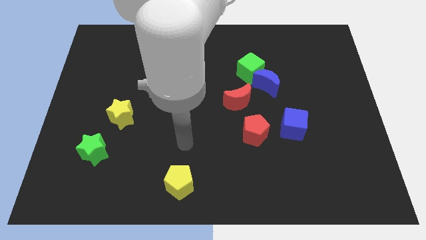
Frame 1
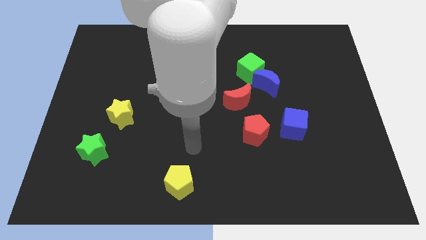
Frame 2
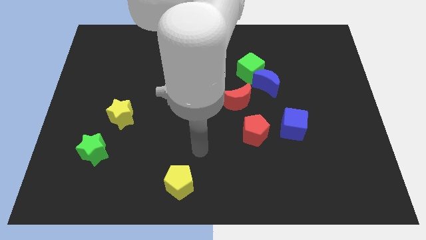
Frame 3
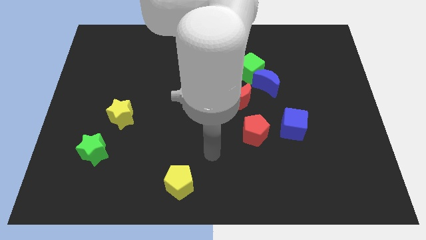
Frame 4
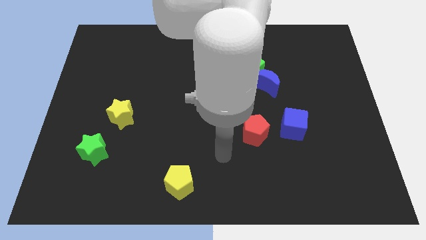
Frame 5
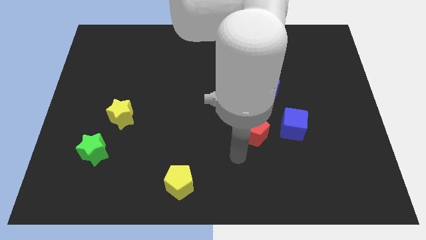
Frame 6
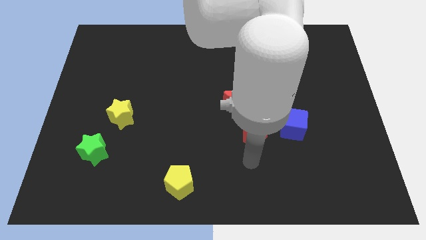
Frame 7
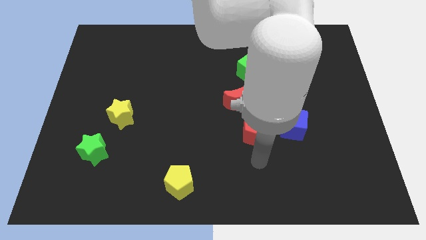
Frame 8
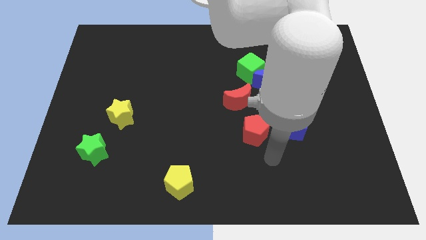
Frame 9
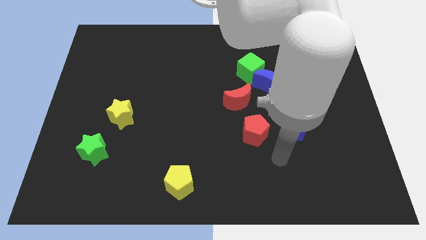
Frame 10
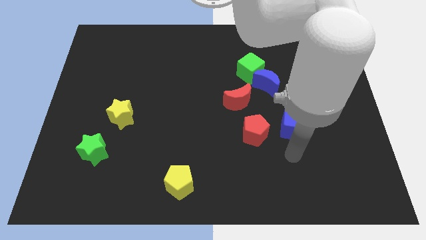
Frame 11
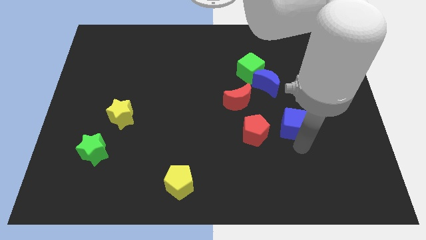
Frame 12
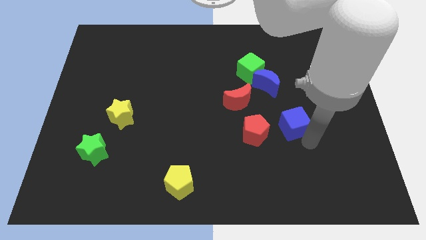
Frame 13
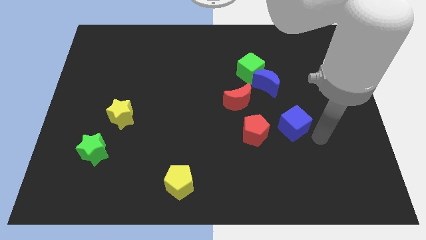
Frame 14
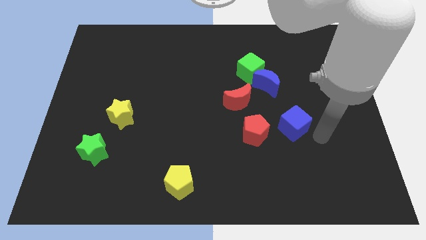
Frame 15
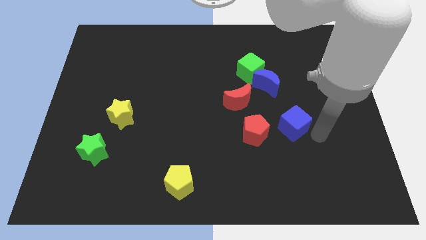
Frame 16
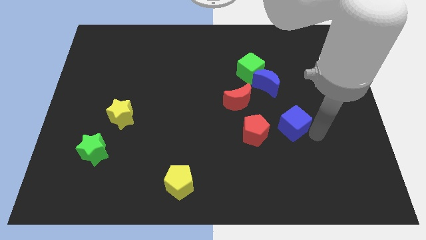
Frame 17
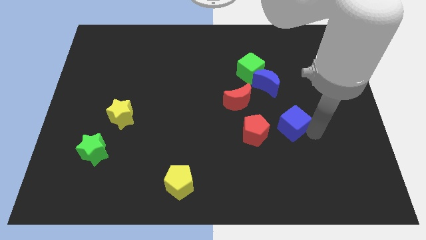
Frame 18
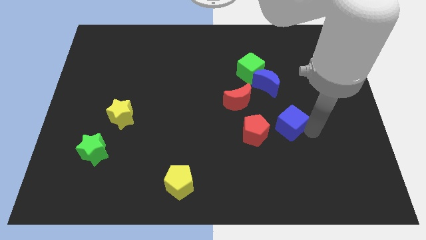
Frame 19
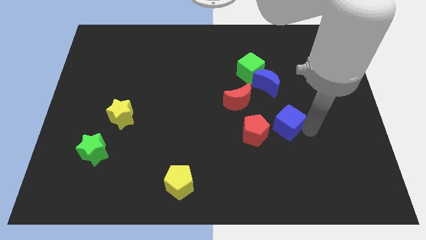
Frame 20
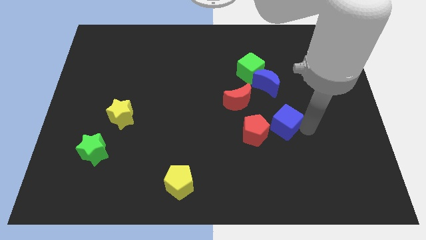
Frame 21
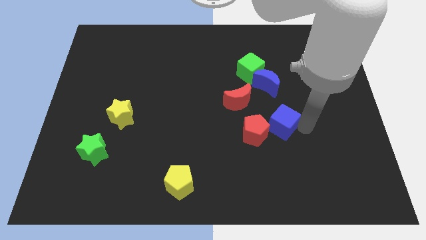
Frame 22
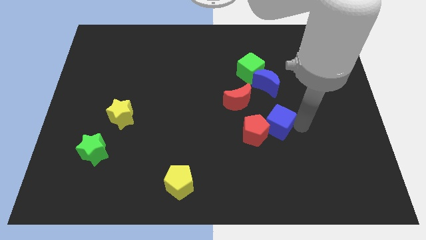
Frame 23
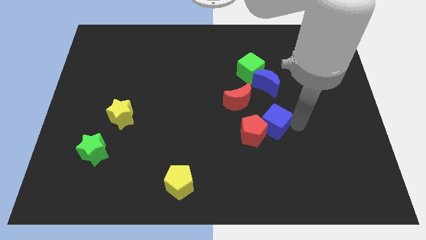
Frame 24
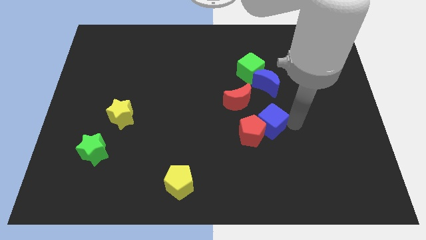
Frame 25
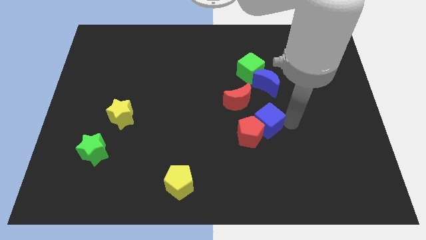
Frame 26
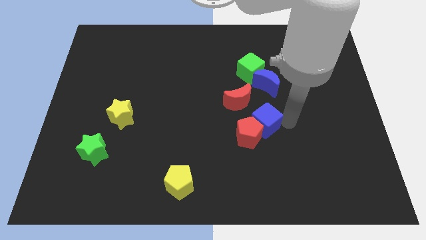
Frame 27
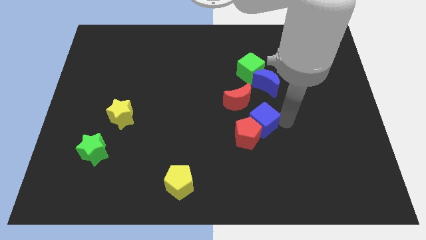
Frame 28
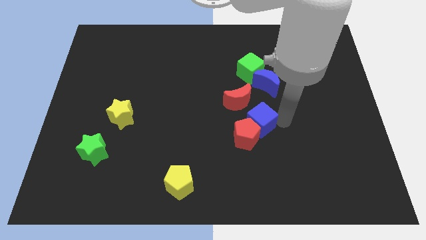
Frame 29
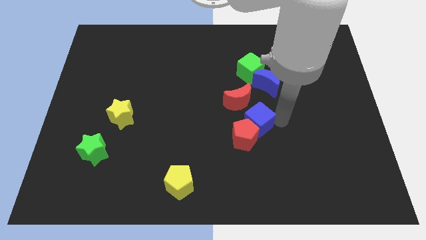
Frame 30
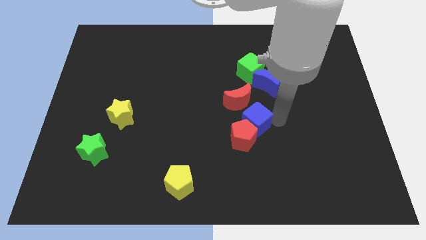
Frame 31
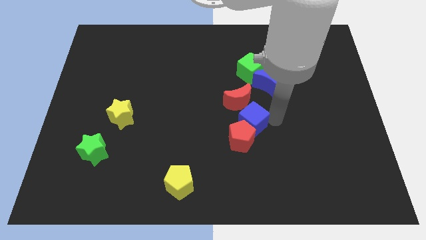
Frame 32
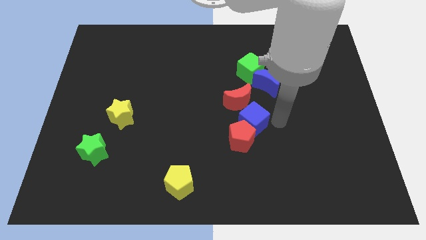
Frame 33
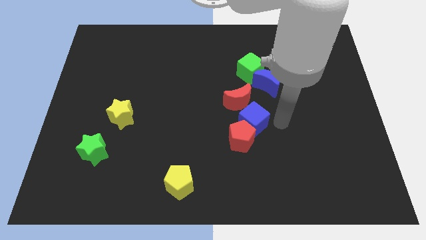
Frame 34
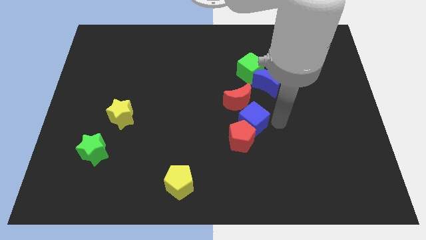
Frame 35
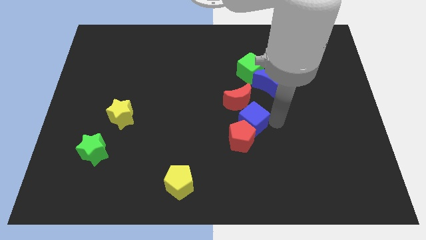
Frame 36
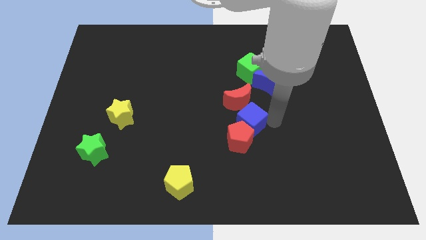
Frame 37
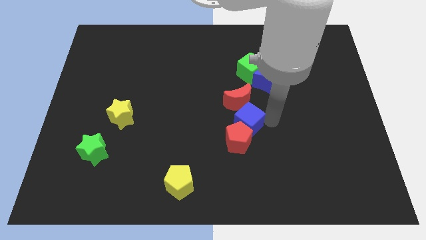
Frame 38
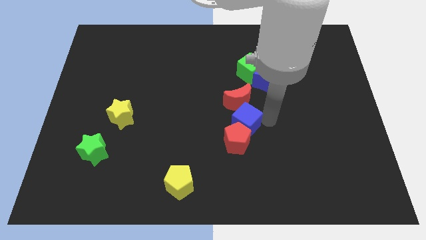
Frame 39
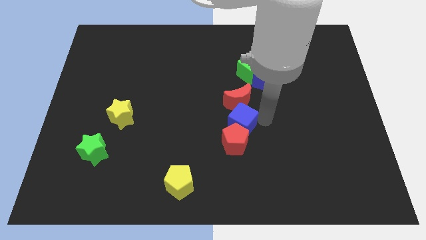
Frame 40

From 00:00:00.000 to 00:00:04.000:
push the blue cube upwards and then to the left a little bit

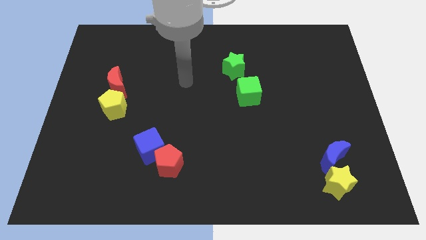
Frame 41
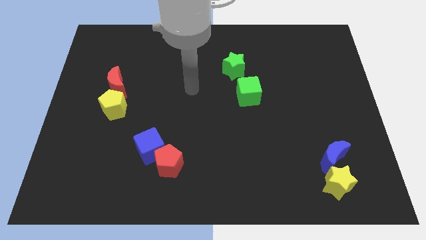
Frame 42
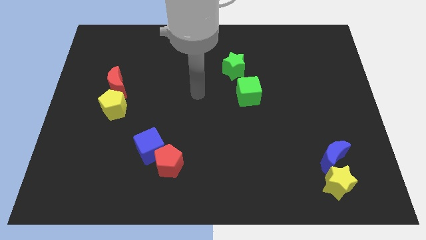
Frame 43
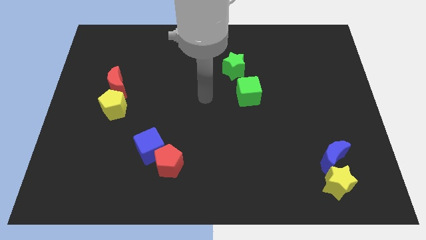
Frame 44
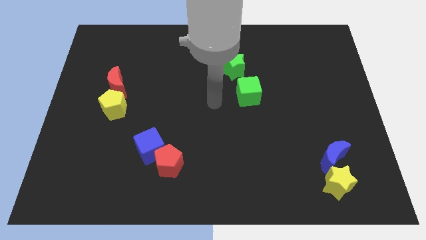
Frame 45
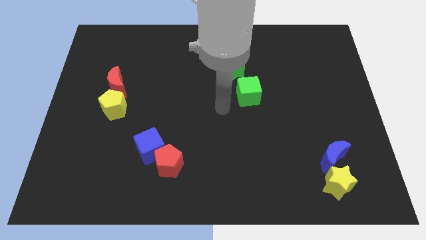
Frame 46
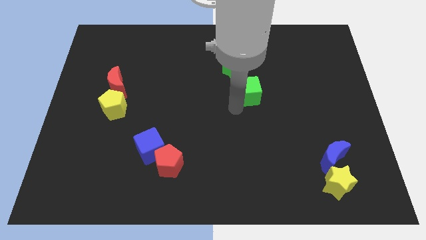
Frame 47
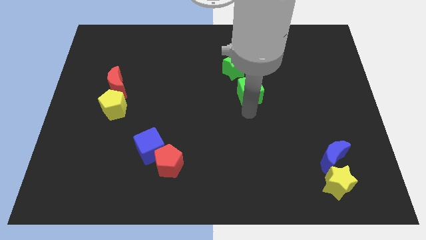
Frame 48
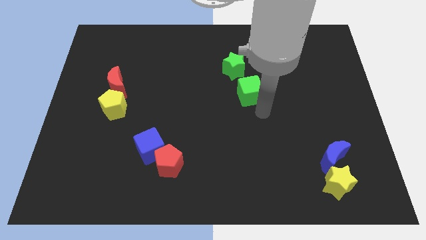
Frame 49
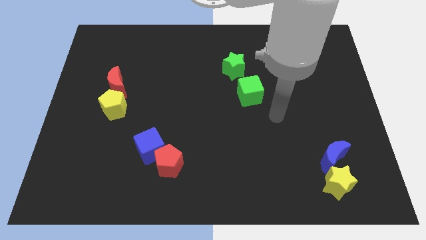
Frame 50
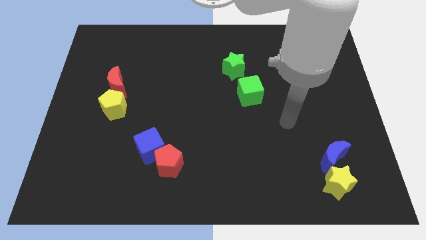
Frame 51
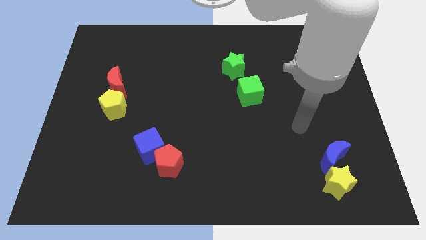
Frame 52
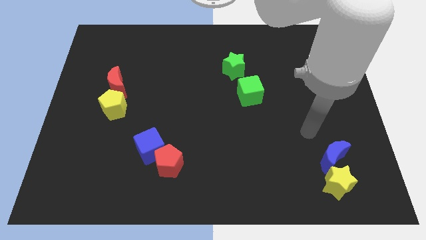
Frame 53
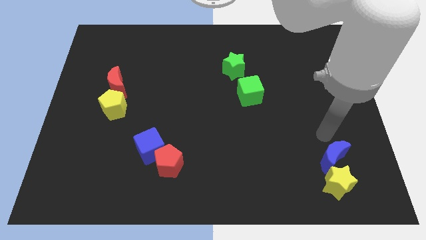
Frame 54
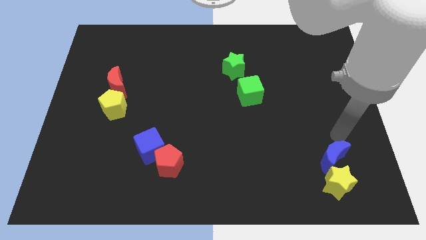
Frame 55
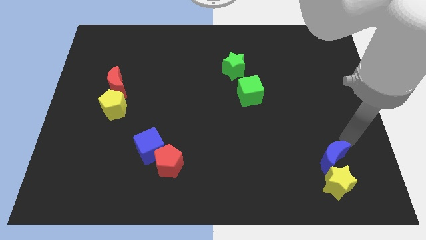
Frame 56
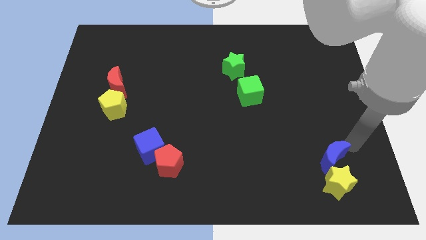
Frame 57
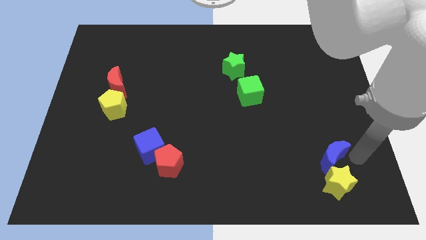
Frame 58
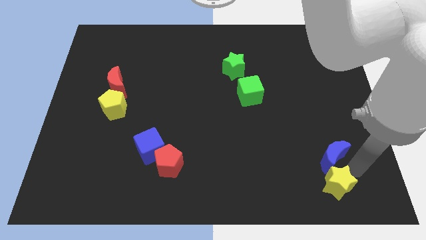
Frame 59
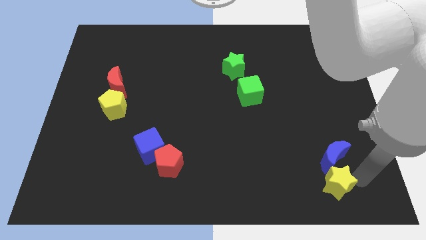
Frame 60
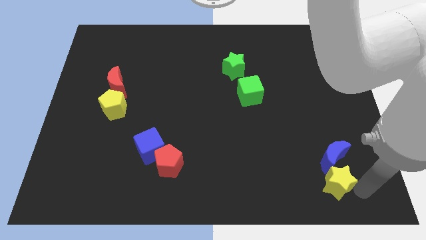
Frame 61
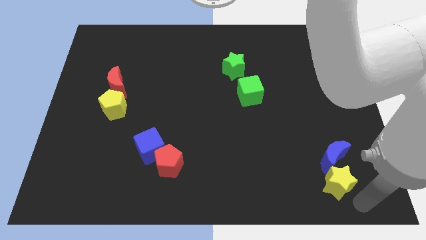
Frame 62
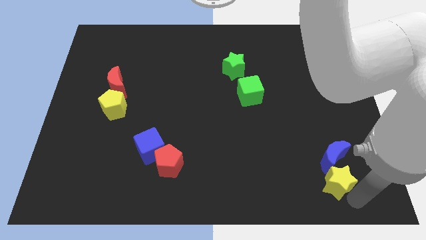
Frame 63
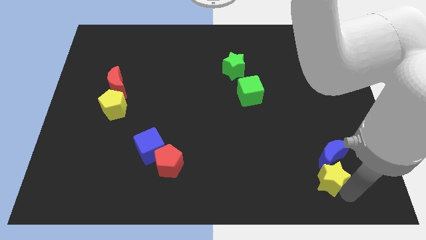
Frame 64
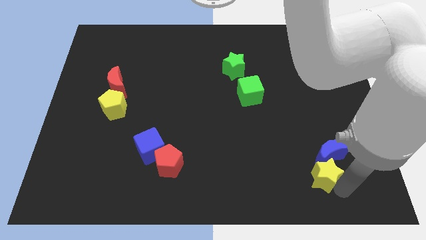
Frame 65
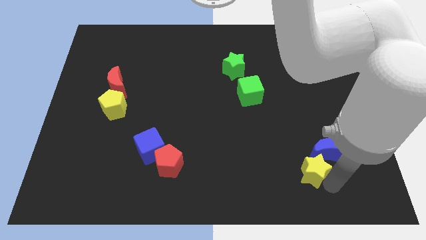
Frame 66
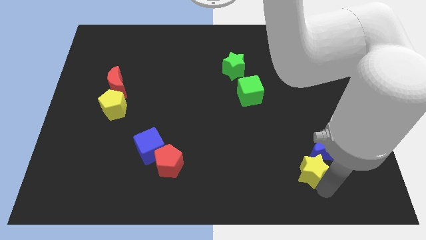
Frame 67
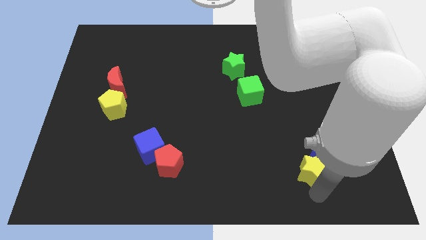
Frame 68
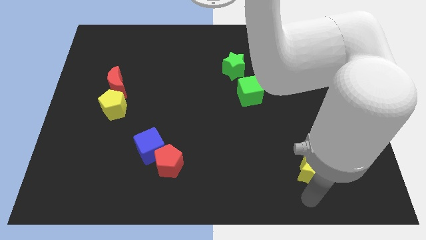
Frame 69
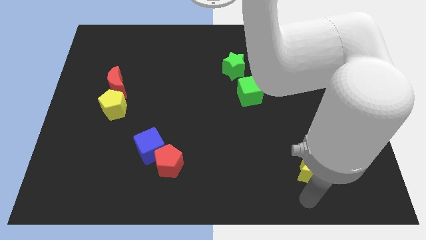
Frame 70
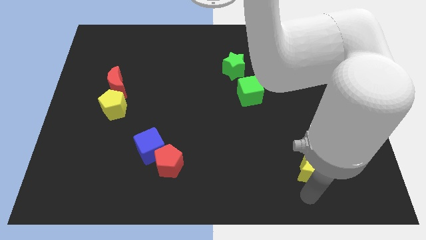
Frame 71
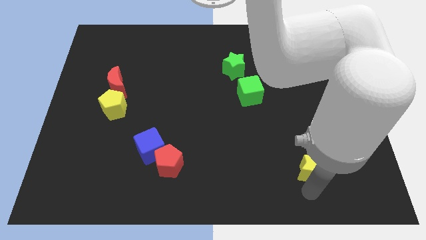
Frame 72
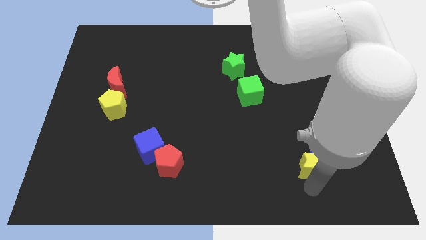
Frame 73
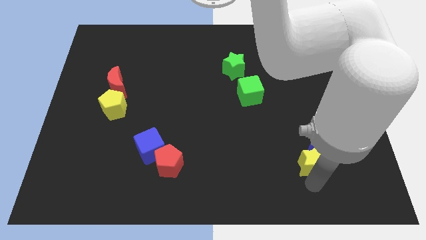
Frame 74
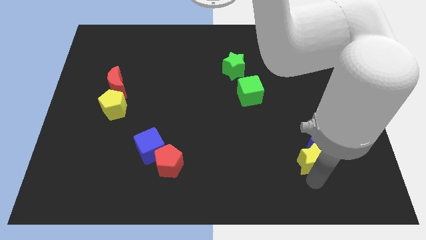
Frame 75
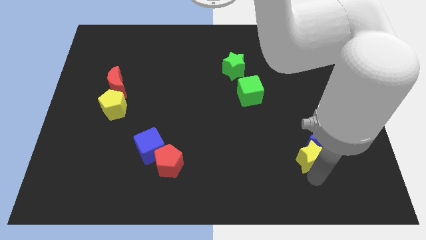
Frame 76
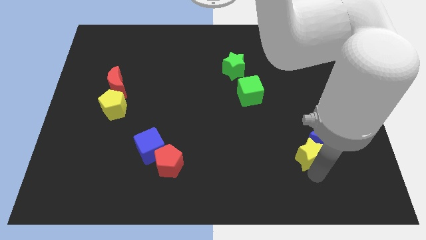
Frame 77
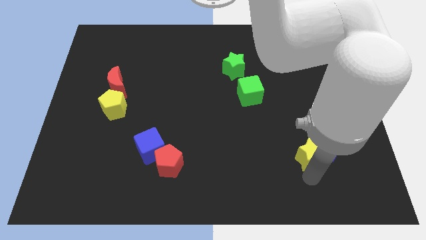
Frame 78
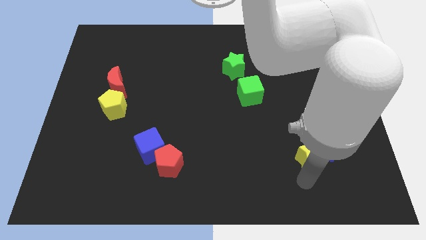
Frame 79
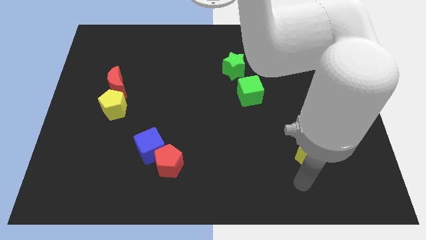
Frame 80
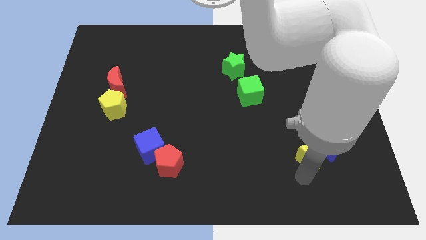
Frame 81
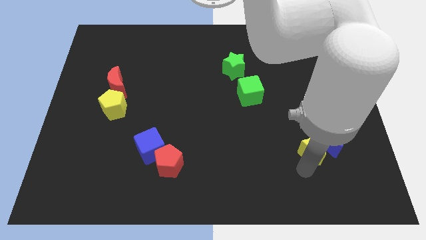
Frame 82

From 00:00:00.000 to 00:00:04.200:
slide the yellow star up slightly

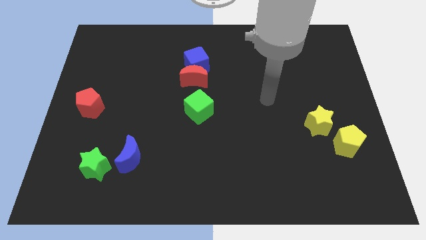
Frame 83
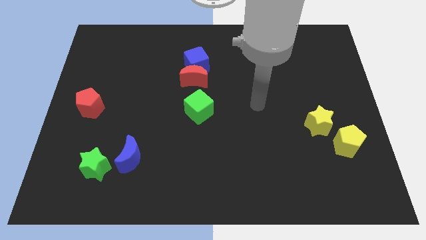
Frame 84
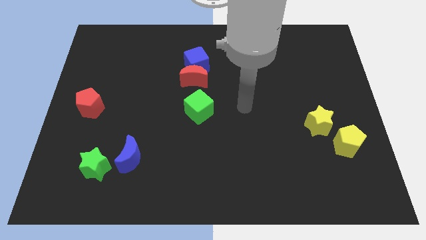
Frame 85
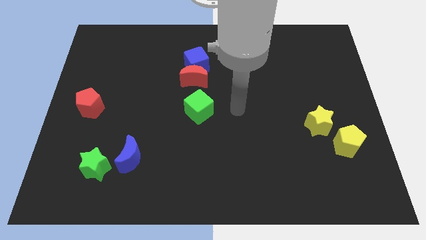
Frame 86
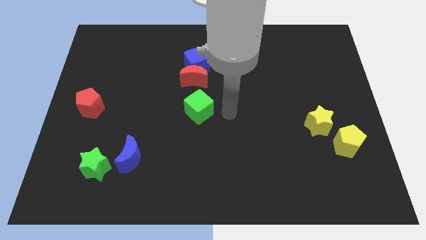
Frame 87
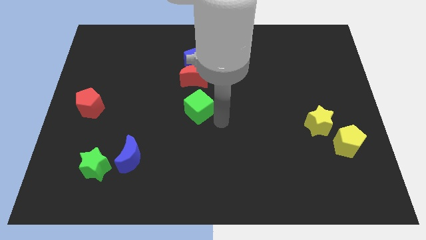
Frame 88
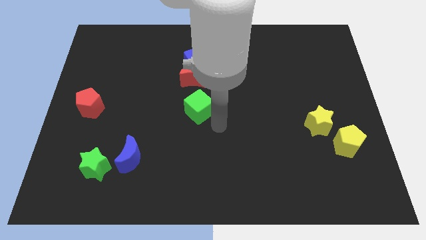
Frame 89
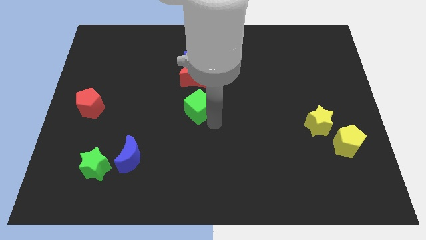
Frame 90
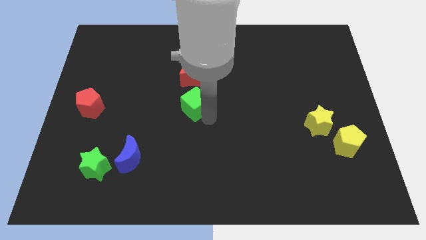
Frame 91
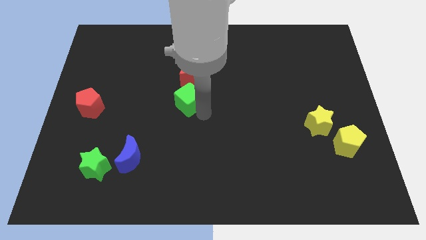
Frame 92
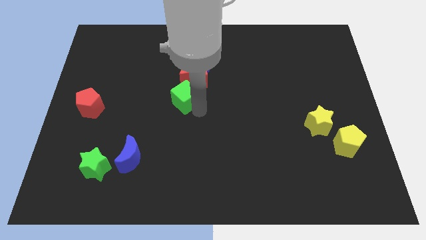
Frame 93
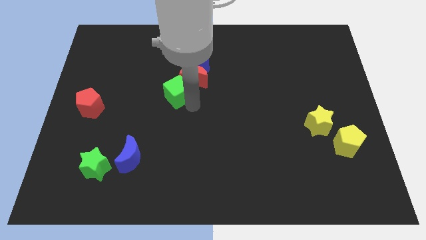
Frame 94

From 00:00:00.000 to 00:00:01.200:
push the green cube diagonally up and left a bit
